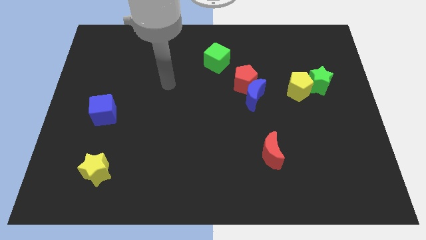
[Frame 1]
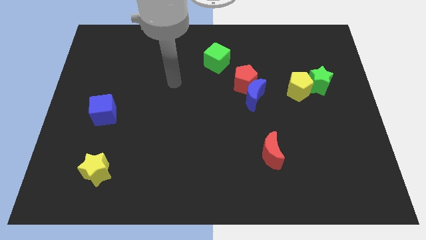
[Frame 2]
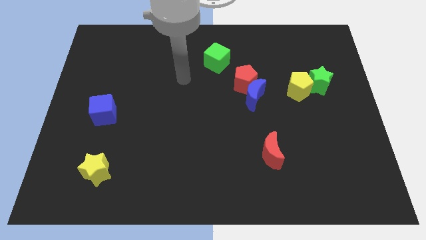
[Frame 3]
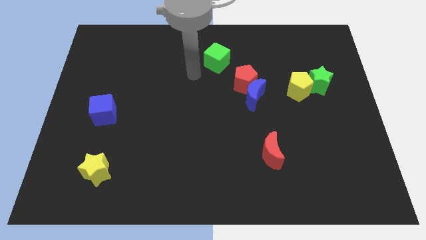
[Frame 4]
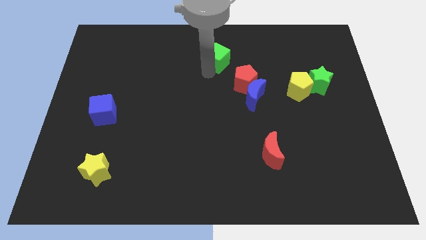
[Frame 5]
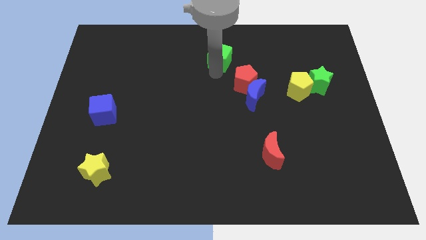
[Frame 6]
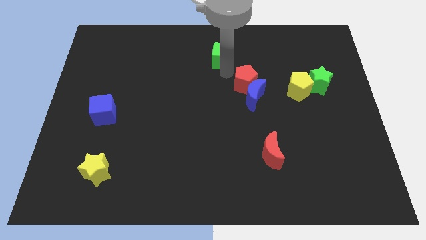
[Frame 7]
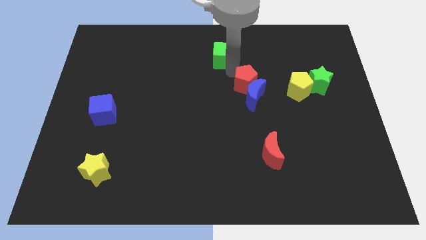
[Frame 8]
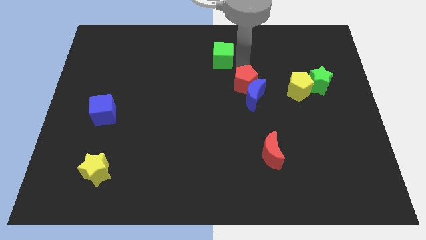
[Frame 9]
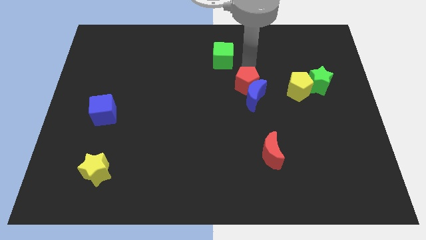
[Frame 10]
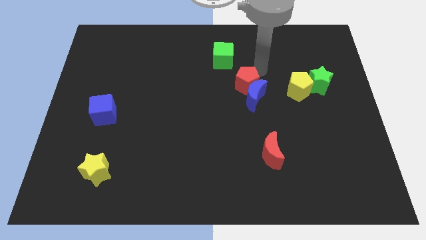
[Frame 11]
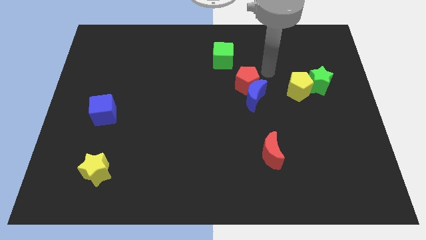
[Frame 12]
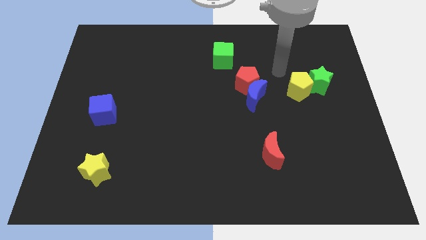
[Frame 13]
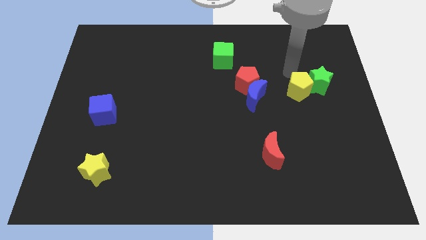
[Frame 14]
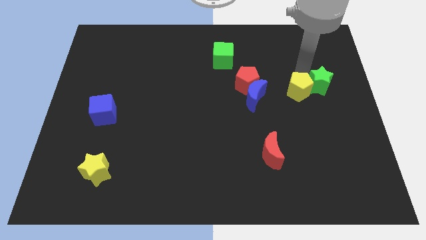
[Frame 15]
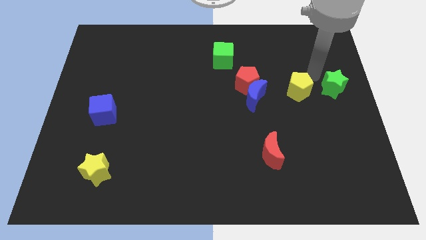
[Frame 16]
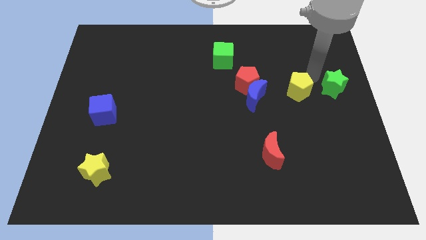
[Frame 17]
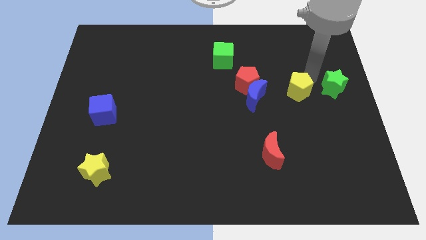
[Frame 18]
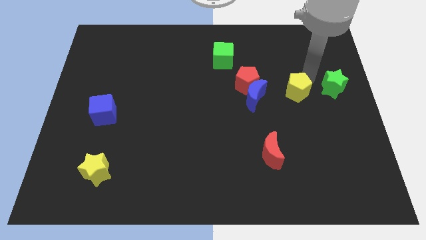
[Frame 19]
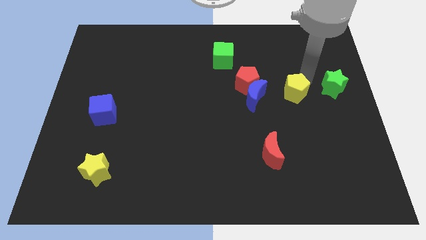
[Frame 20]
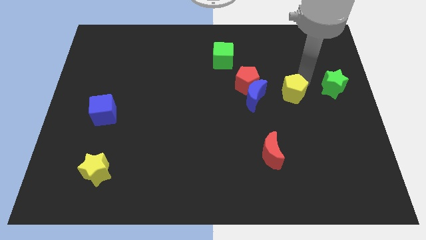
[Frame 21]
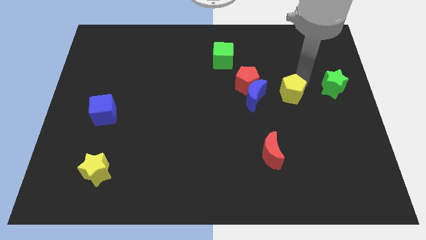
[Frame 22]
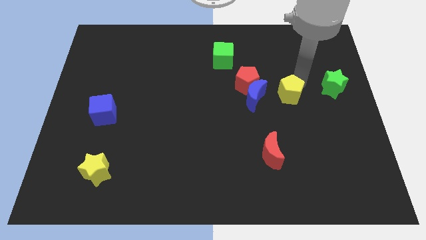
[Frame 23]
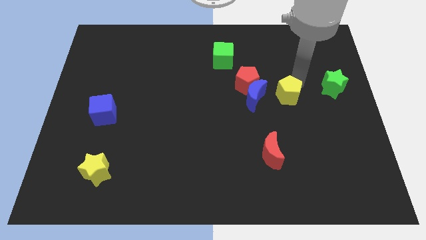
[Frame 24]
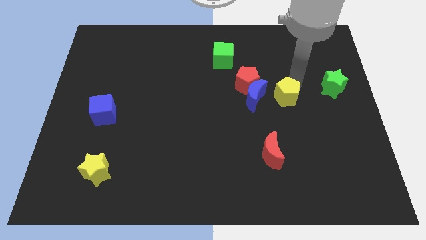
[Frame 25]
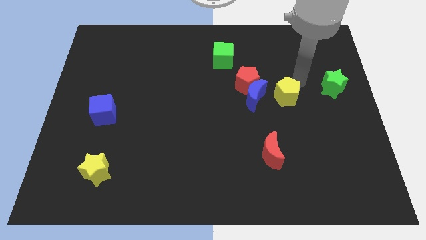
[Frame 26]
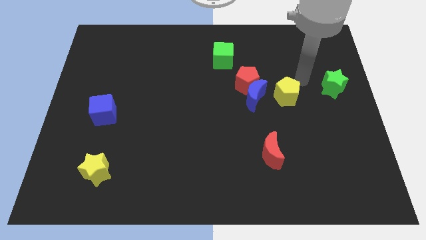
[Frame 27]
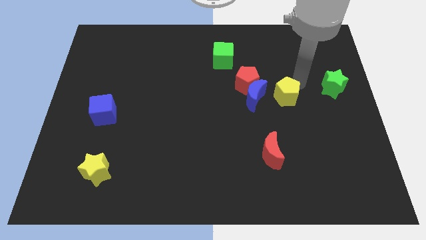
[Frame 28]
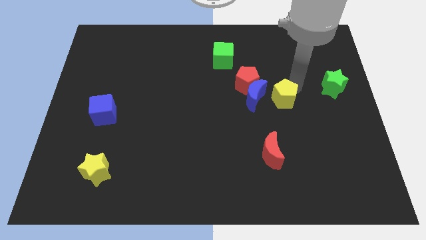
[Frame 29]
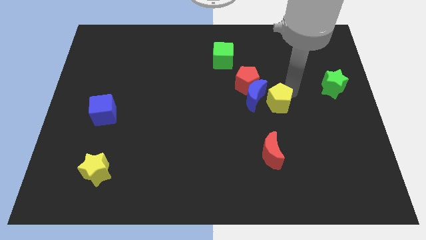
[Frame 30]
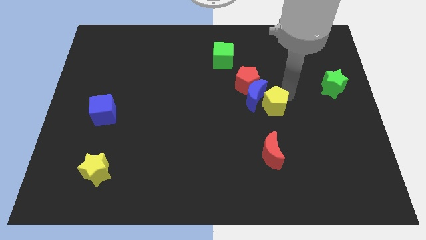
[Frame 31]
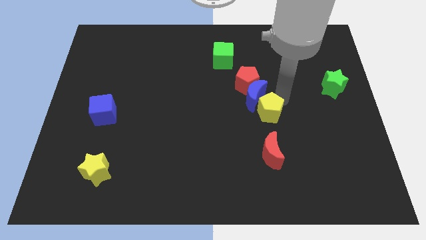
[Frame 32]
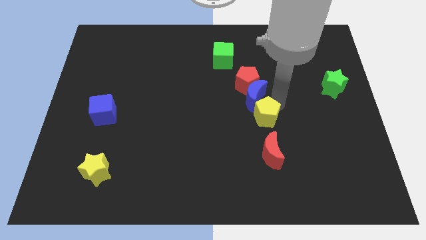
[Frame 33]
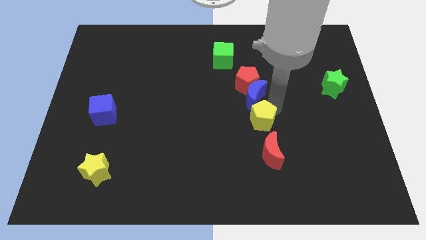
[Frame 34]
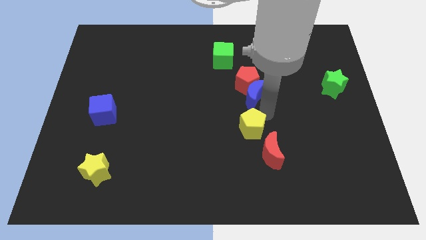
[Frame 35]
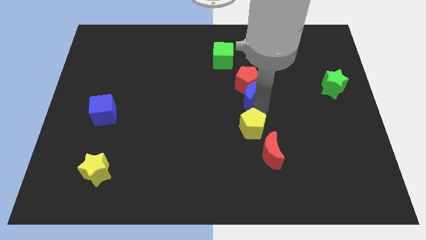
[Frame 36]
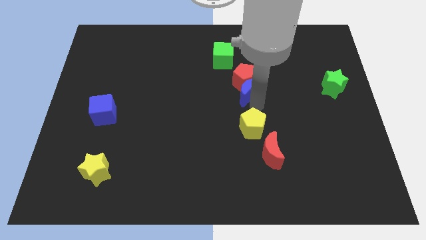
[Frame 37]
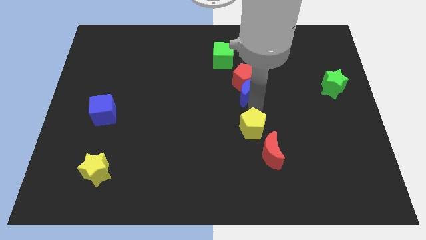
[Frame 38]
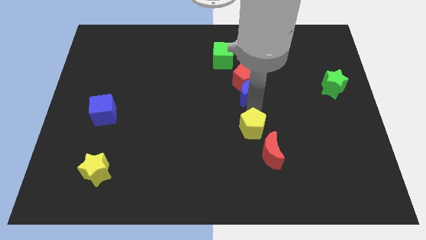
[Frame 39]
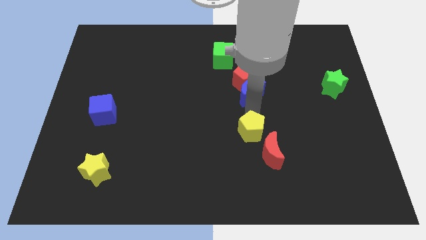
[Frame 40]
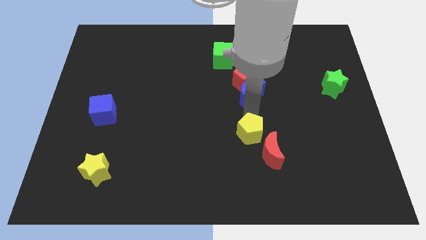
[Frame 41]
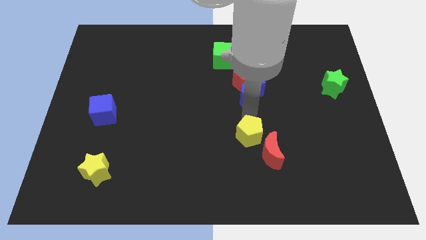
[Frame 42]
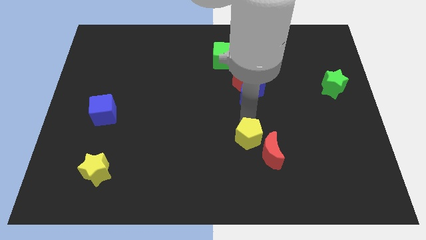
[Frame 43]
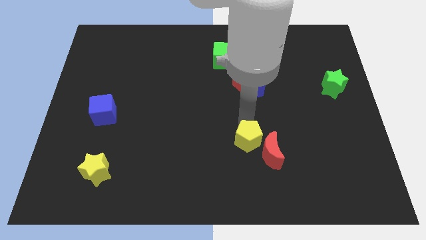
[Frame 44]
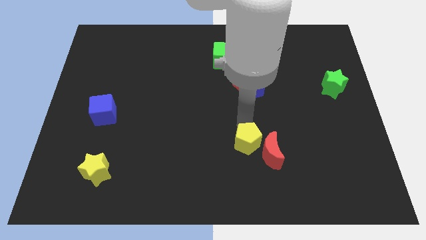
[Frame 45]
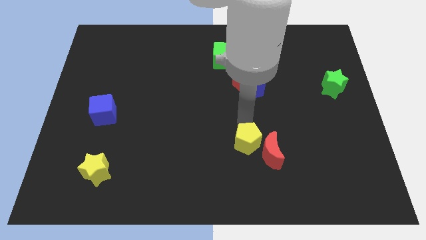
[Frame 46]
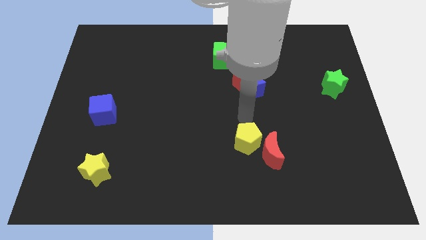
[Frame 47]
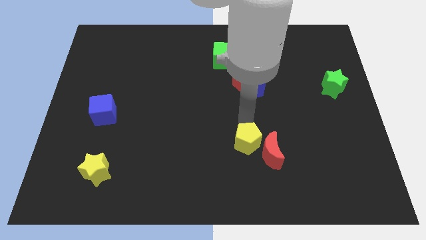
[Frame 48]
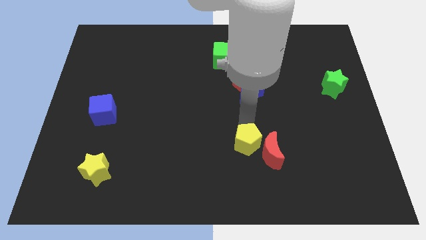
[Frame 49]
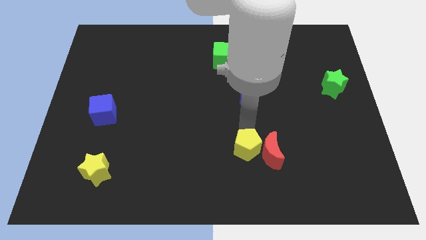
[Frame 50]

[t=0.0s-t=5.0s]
slide the yellow pentagon diagonally down and to the left of the red moon

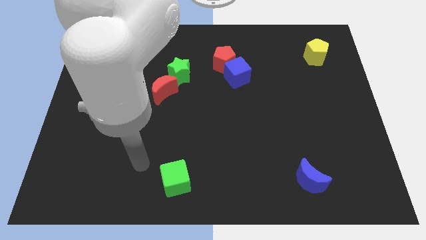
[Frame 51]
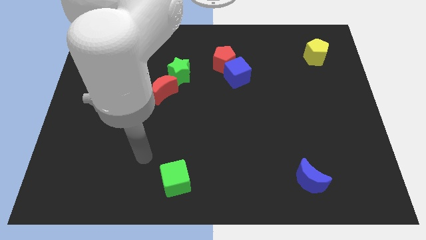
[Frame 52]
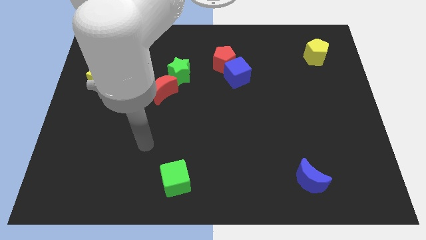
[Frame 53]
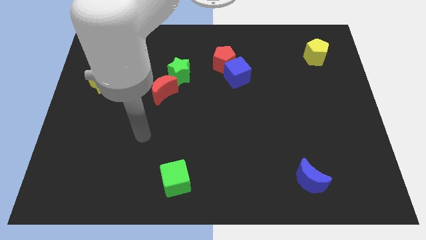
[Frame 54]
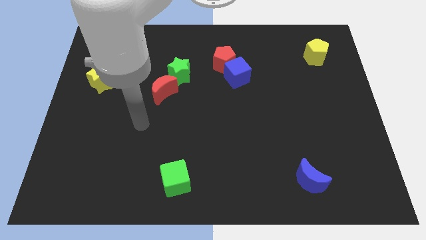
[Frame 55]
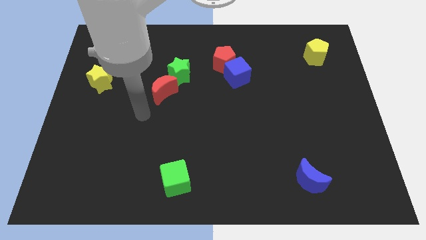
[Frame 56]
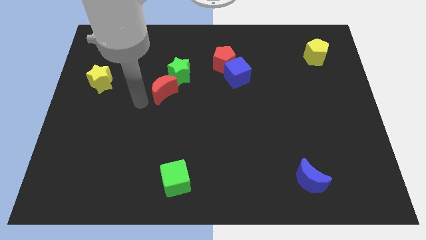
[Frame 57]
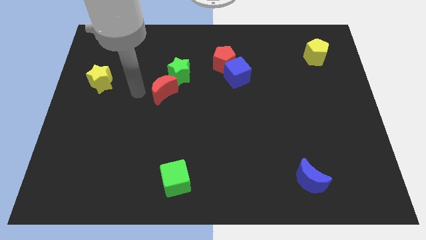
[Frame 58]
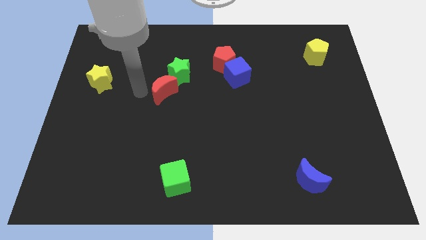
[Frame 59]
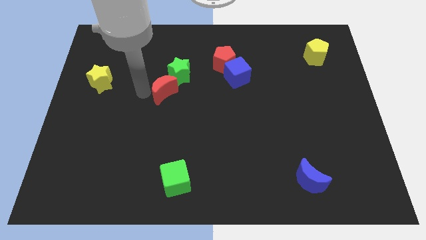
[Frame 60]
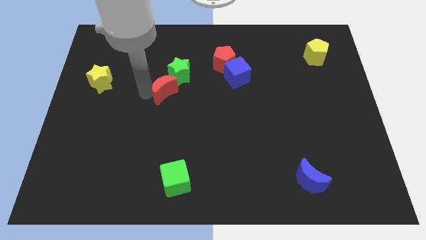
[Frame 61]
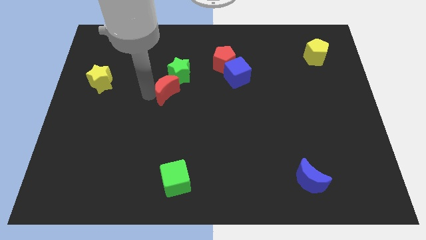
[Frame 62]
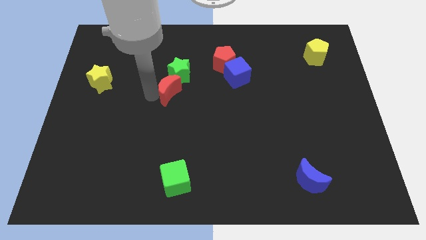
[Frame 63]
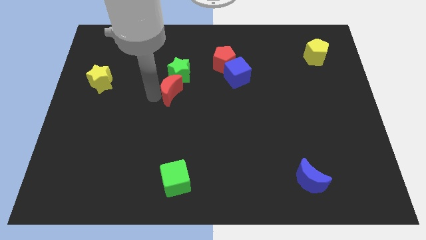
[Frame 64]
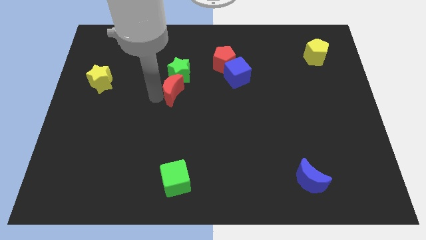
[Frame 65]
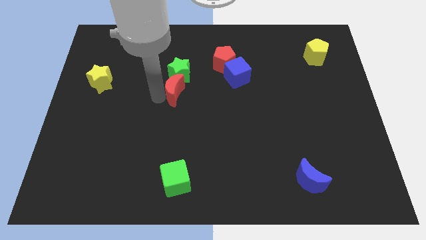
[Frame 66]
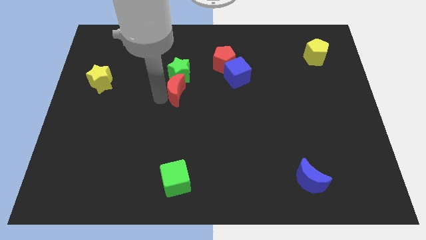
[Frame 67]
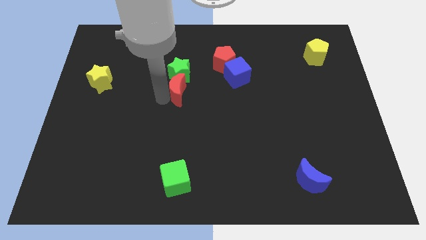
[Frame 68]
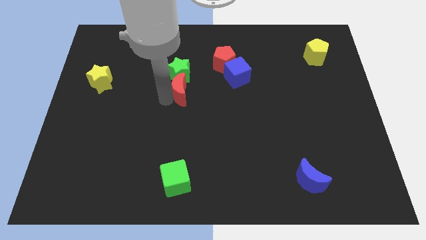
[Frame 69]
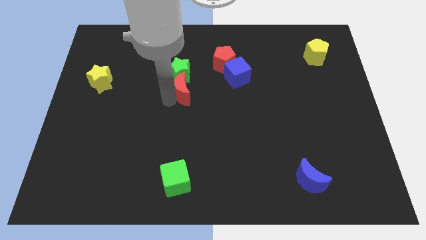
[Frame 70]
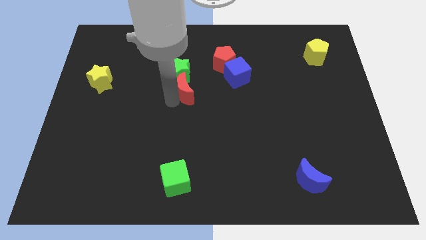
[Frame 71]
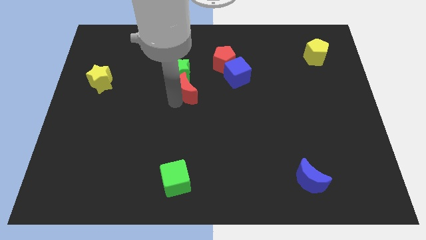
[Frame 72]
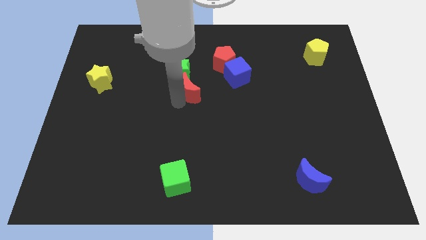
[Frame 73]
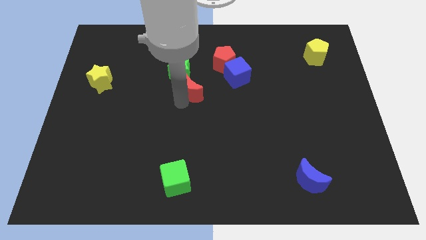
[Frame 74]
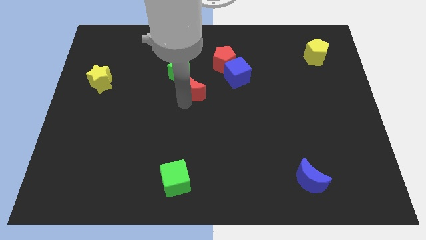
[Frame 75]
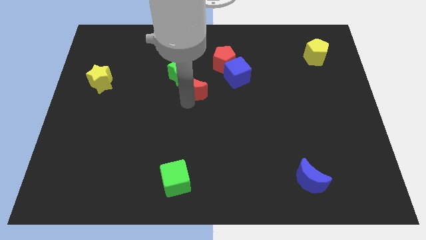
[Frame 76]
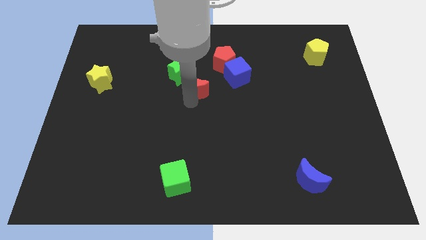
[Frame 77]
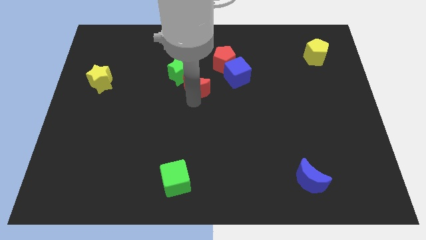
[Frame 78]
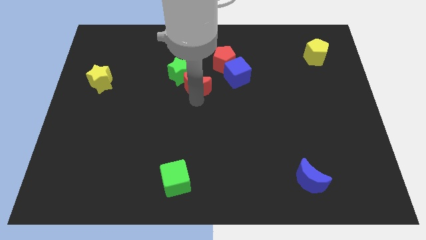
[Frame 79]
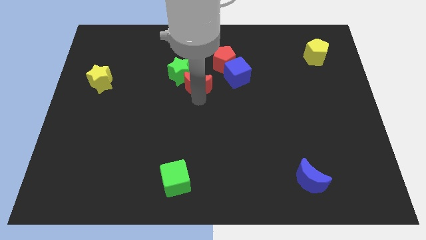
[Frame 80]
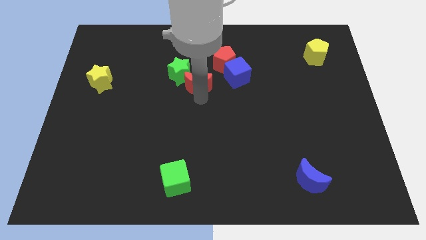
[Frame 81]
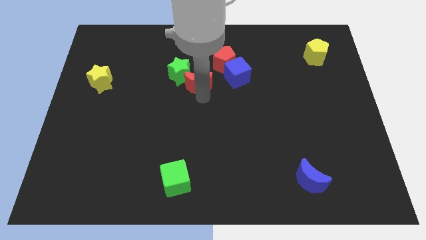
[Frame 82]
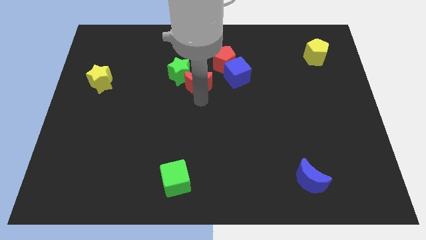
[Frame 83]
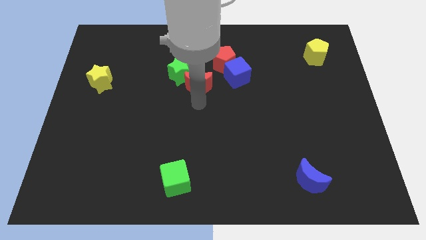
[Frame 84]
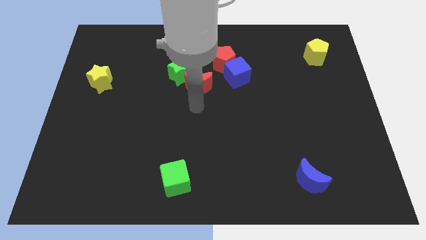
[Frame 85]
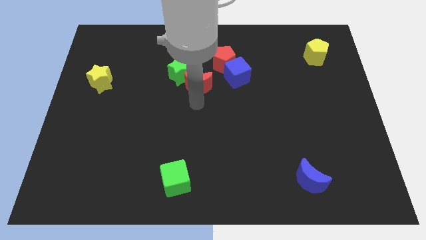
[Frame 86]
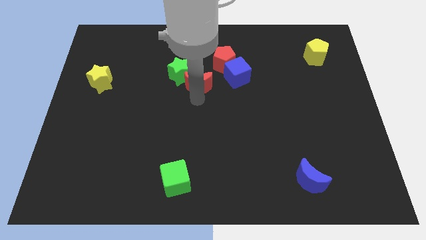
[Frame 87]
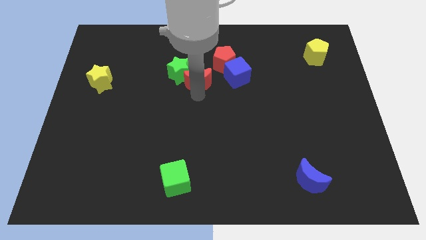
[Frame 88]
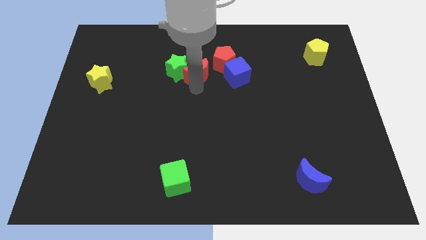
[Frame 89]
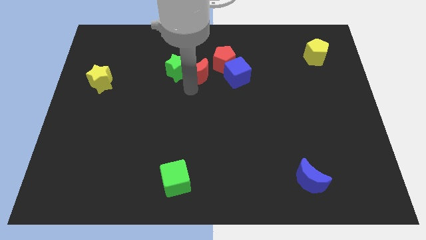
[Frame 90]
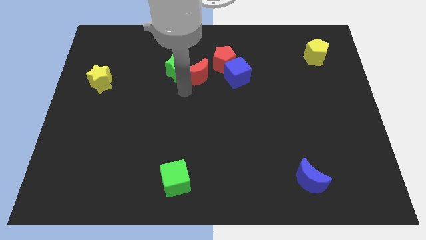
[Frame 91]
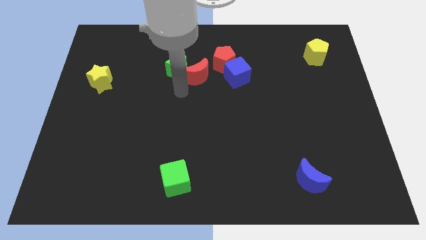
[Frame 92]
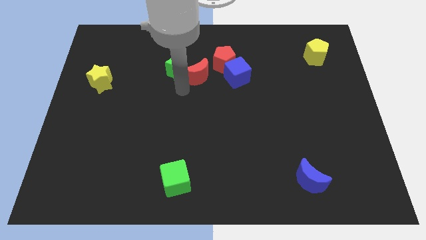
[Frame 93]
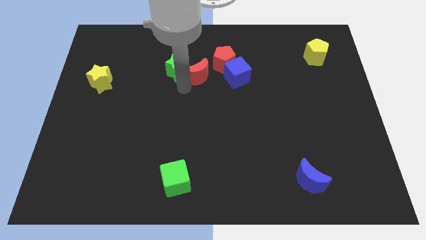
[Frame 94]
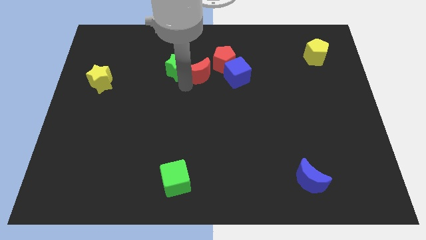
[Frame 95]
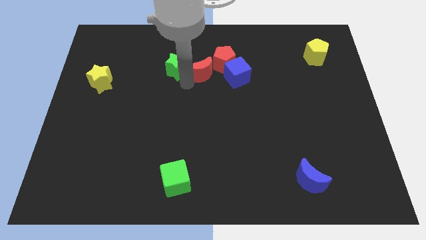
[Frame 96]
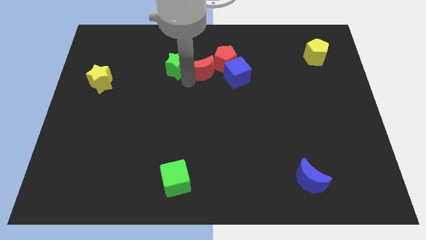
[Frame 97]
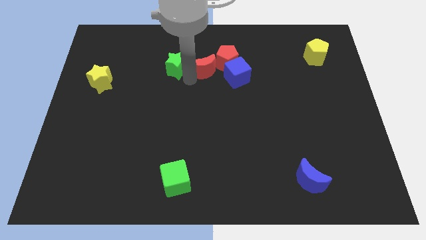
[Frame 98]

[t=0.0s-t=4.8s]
move the red moon to the top left side of the blue cube
